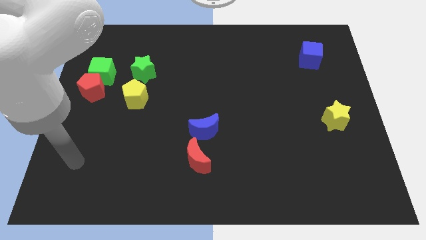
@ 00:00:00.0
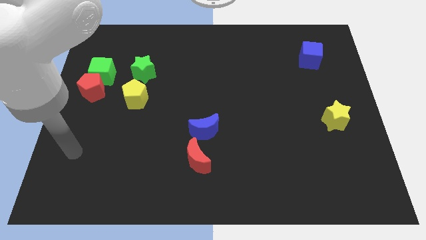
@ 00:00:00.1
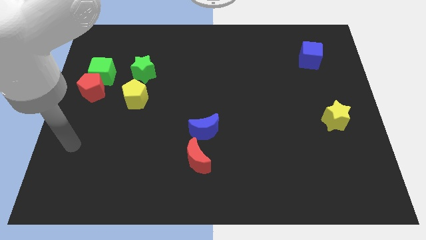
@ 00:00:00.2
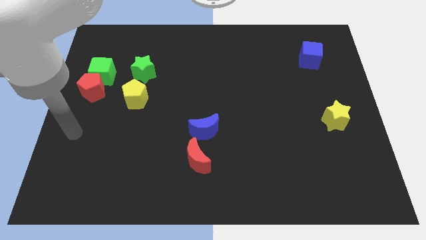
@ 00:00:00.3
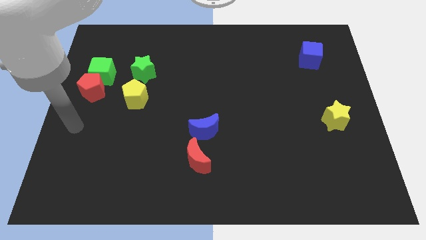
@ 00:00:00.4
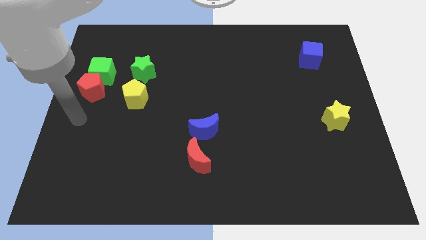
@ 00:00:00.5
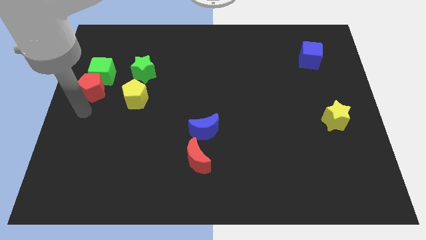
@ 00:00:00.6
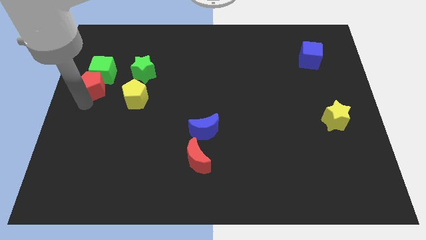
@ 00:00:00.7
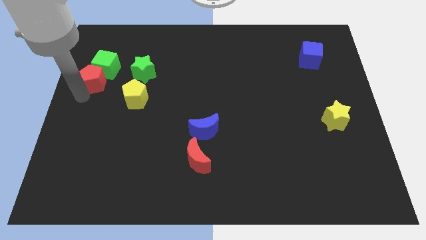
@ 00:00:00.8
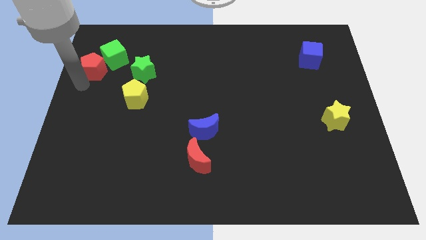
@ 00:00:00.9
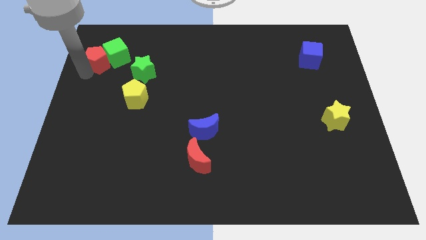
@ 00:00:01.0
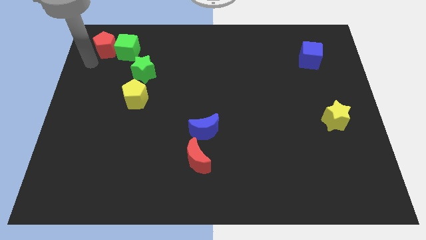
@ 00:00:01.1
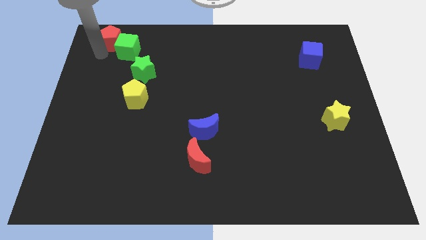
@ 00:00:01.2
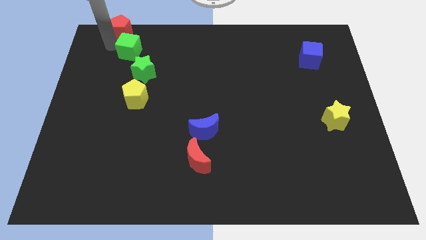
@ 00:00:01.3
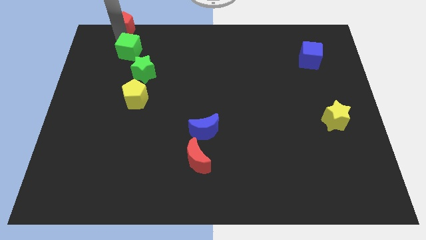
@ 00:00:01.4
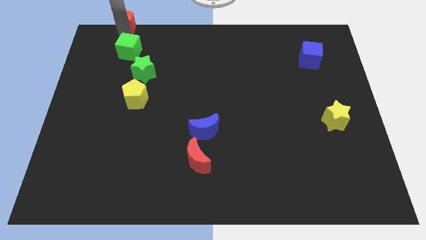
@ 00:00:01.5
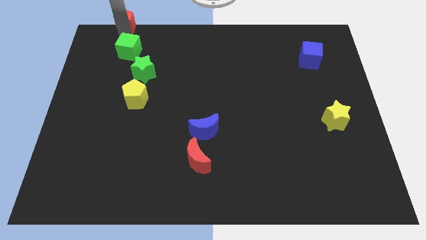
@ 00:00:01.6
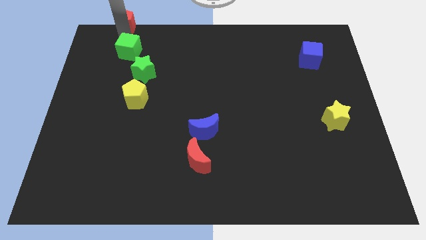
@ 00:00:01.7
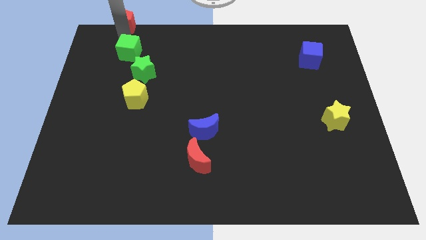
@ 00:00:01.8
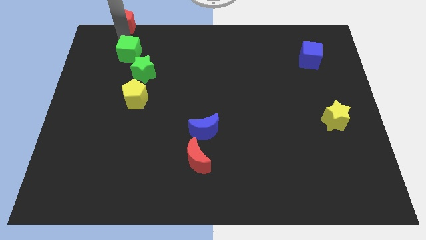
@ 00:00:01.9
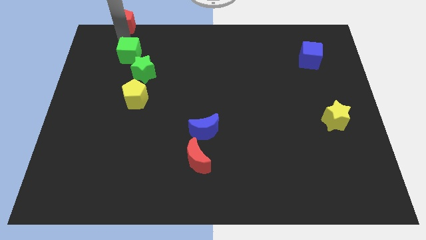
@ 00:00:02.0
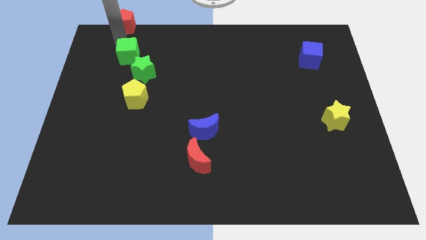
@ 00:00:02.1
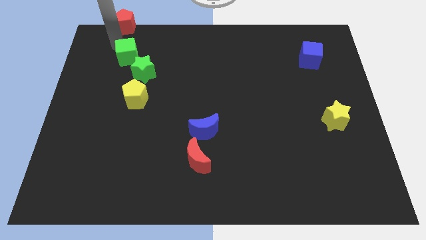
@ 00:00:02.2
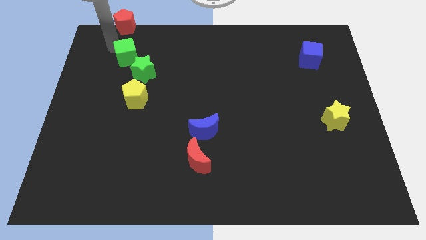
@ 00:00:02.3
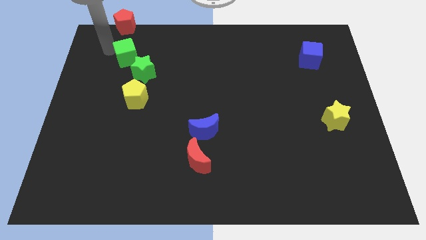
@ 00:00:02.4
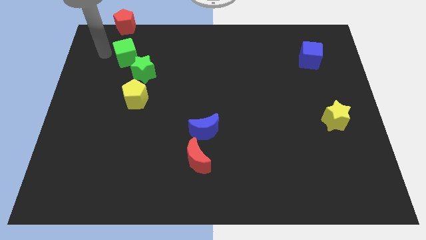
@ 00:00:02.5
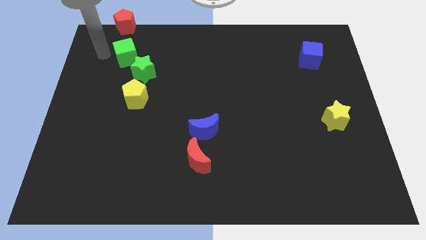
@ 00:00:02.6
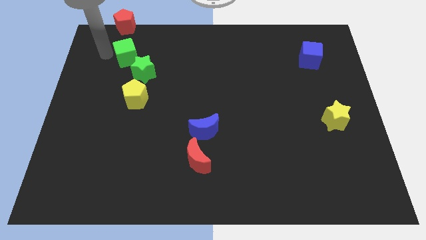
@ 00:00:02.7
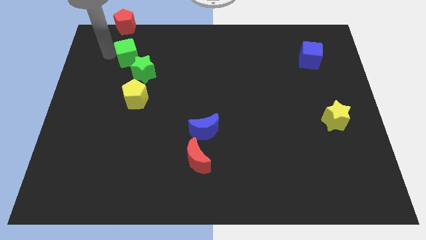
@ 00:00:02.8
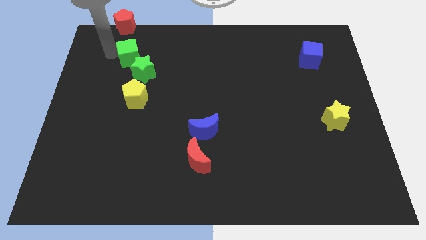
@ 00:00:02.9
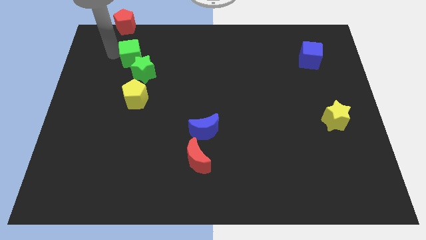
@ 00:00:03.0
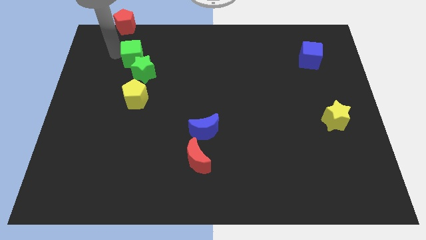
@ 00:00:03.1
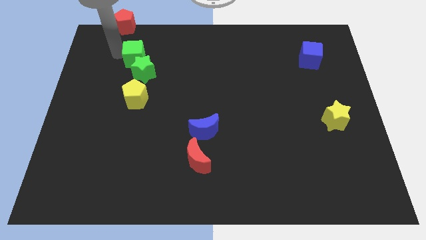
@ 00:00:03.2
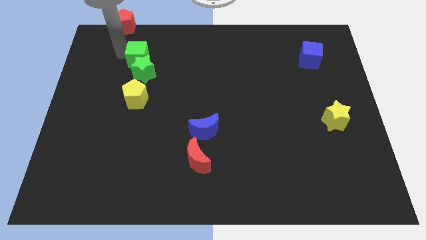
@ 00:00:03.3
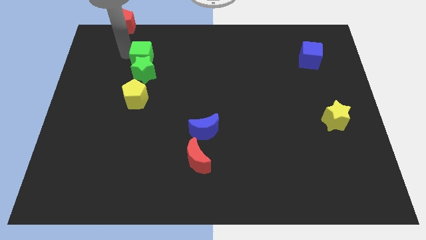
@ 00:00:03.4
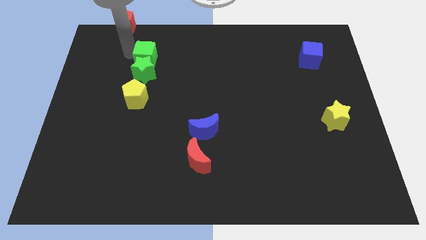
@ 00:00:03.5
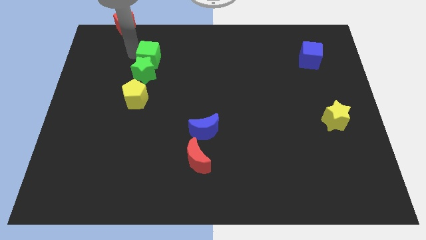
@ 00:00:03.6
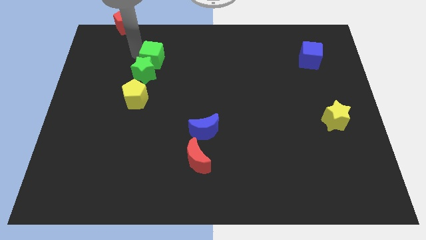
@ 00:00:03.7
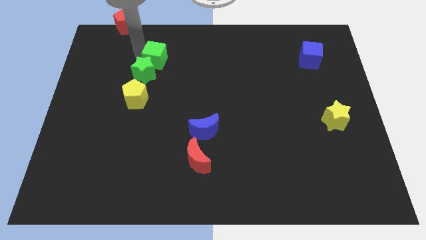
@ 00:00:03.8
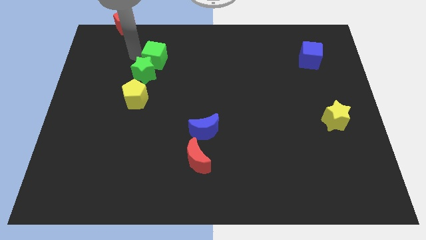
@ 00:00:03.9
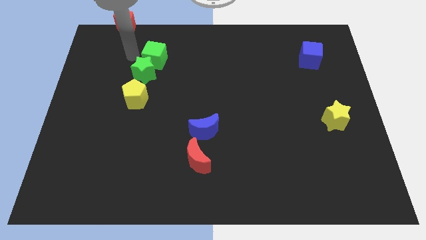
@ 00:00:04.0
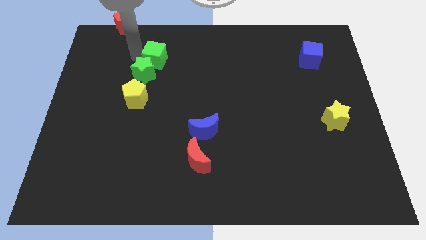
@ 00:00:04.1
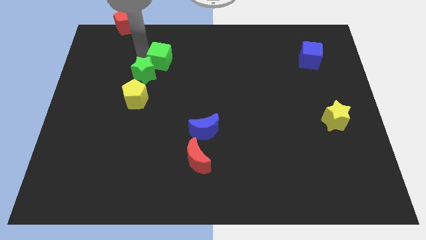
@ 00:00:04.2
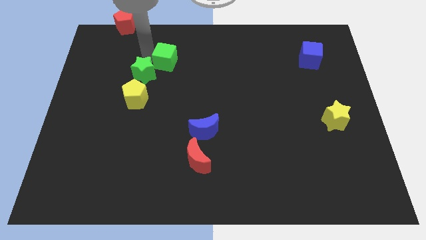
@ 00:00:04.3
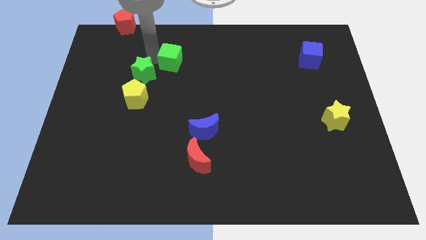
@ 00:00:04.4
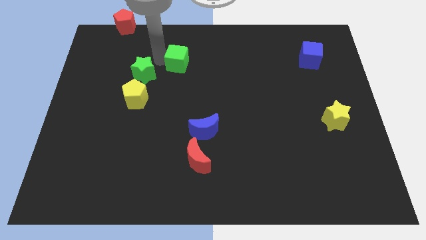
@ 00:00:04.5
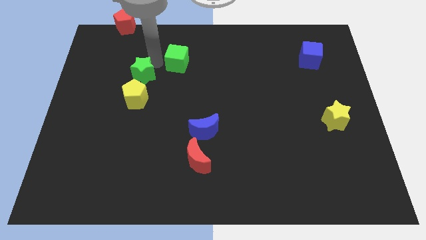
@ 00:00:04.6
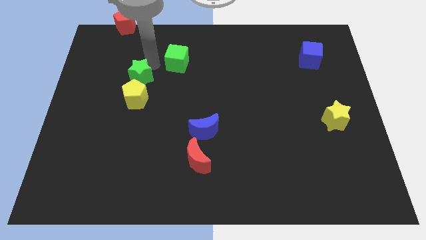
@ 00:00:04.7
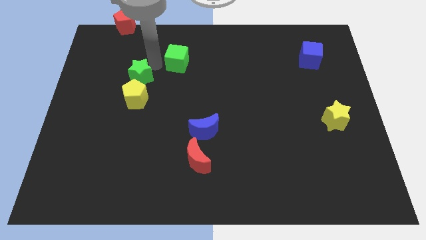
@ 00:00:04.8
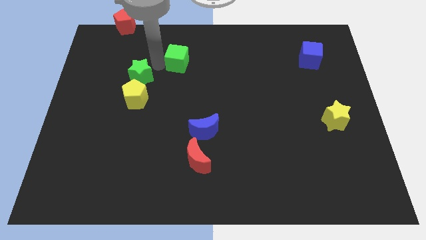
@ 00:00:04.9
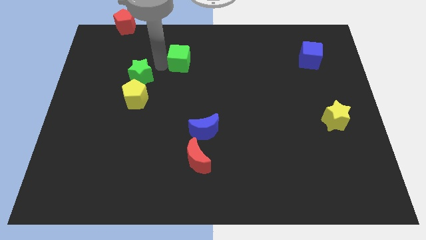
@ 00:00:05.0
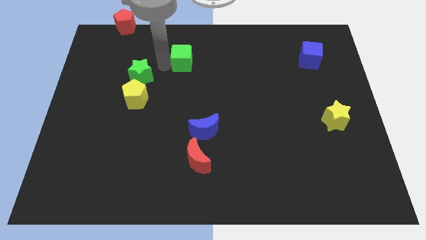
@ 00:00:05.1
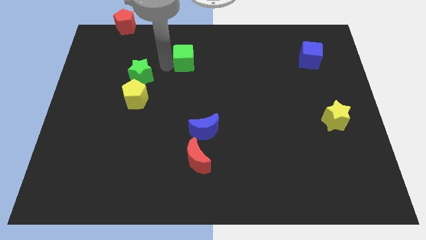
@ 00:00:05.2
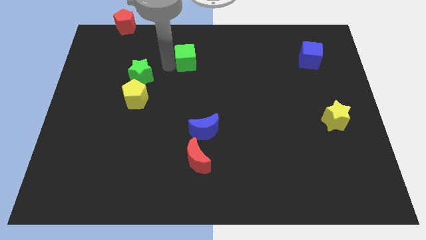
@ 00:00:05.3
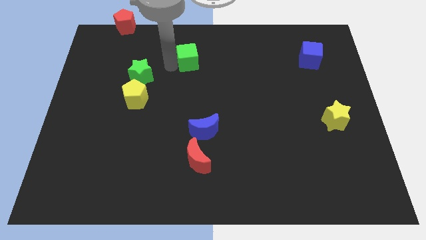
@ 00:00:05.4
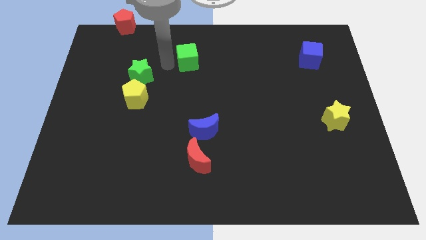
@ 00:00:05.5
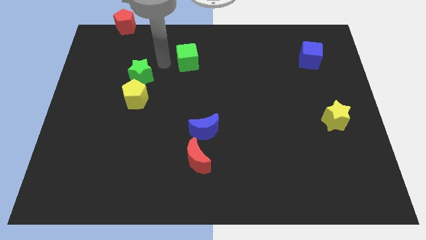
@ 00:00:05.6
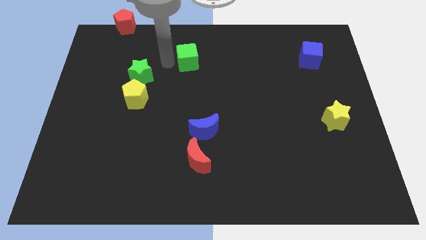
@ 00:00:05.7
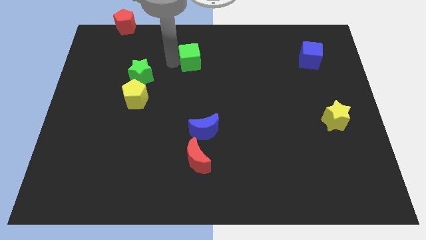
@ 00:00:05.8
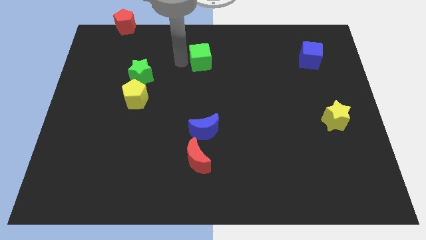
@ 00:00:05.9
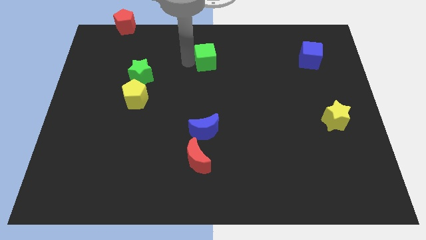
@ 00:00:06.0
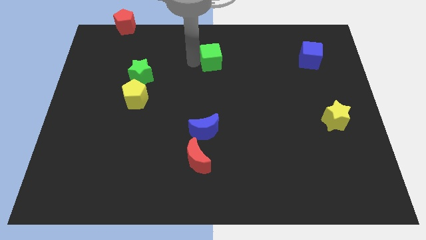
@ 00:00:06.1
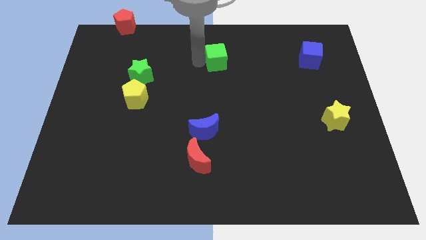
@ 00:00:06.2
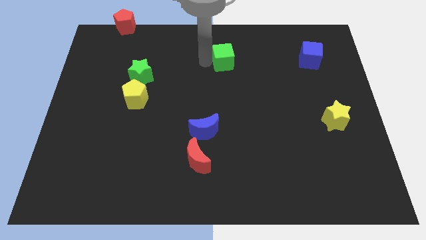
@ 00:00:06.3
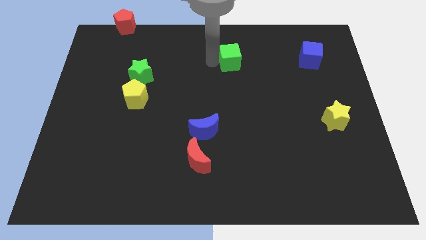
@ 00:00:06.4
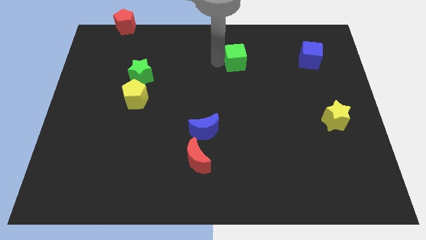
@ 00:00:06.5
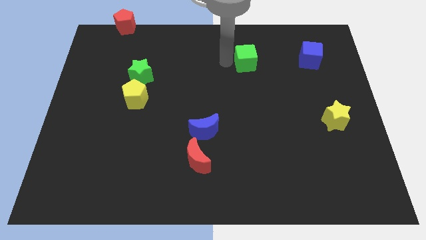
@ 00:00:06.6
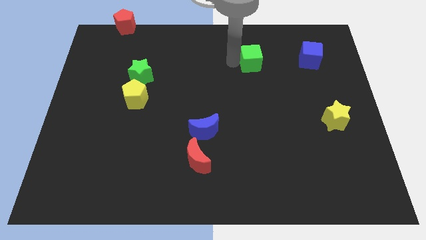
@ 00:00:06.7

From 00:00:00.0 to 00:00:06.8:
put the green cube to the left side of the blue cube

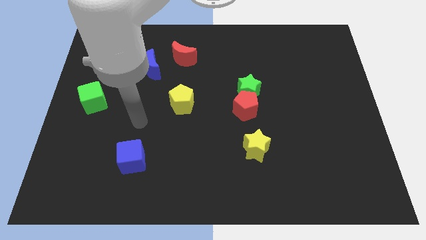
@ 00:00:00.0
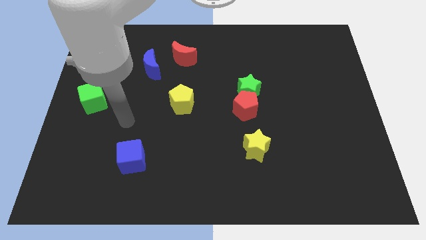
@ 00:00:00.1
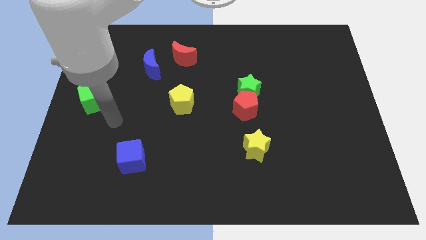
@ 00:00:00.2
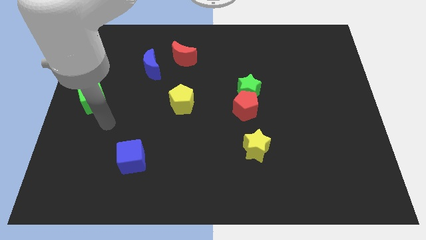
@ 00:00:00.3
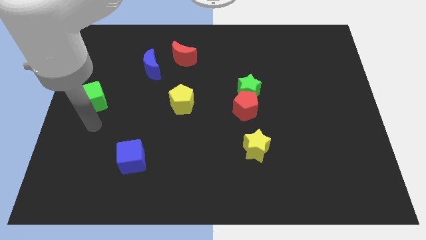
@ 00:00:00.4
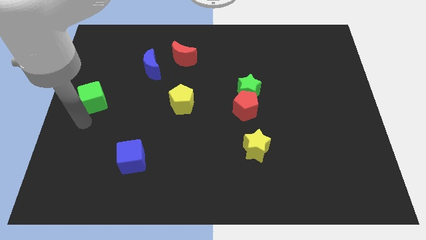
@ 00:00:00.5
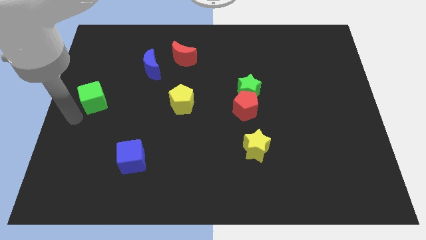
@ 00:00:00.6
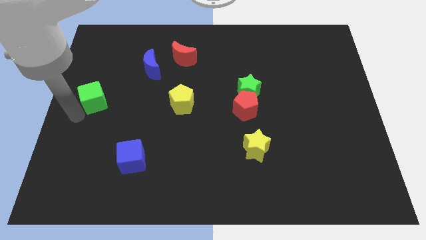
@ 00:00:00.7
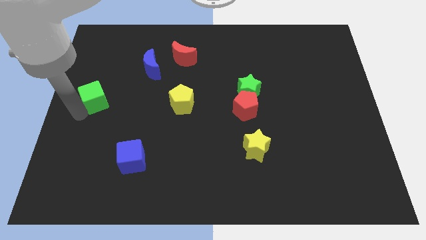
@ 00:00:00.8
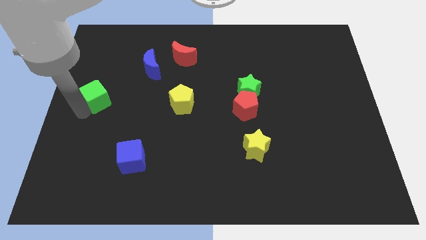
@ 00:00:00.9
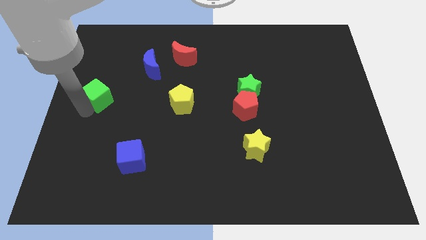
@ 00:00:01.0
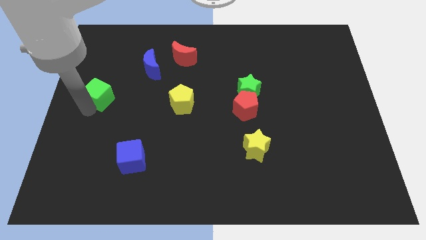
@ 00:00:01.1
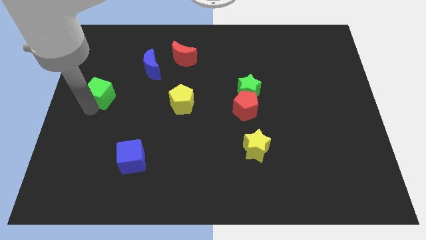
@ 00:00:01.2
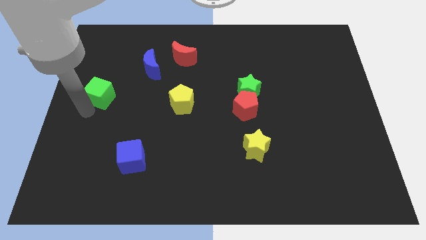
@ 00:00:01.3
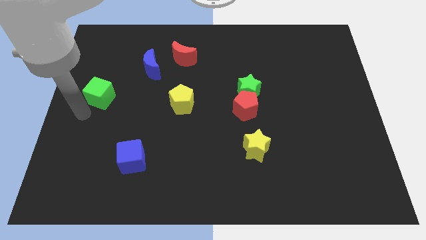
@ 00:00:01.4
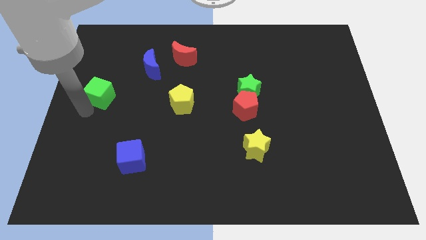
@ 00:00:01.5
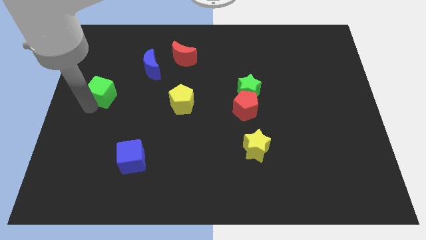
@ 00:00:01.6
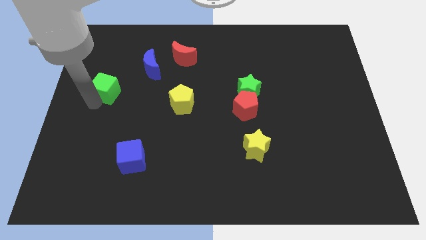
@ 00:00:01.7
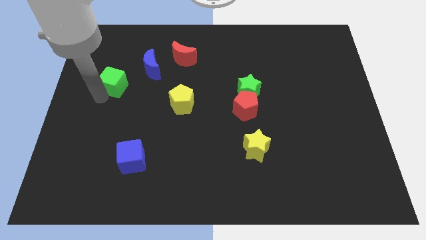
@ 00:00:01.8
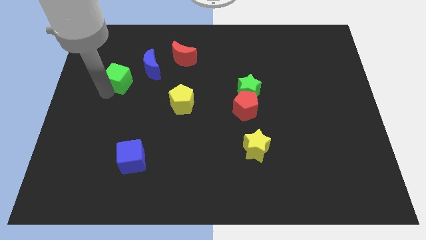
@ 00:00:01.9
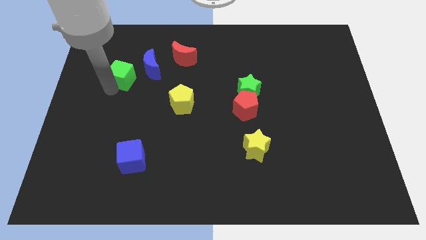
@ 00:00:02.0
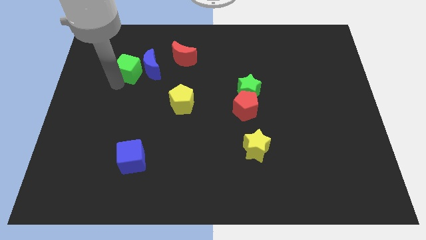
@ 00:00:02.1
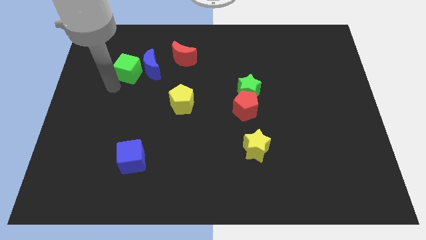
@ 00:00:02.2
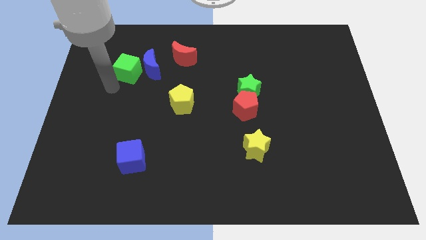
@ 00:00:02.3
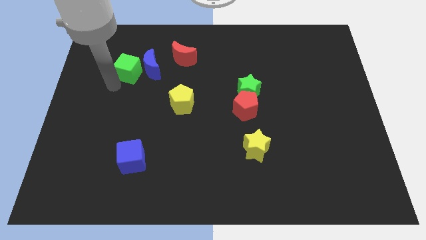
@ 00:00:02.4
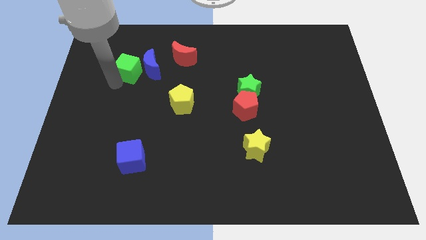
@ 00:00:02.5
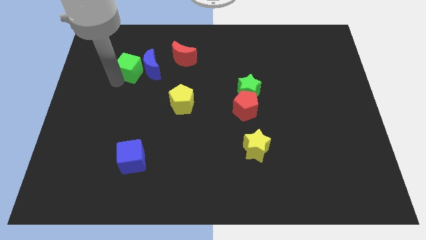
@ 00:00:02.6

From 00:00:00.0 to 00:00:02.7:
put the green cube to the left side of the red moon
